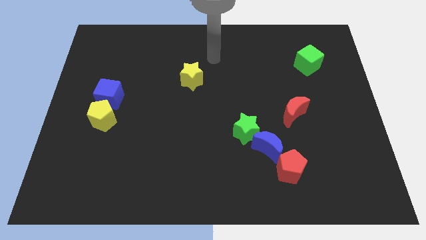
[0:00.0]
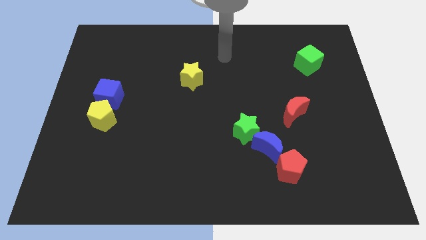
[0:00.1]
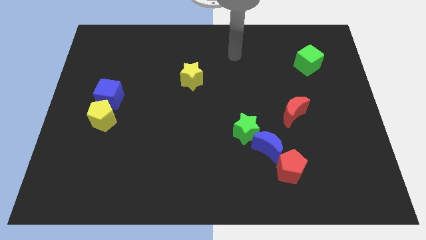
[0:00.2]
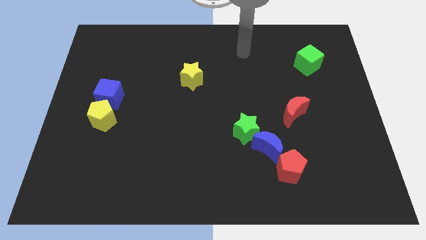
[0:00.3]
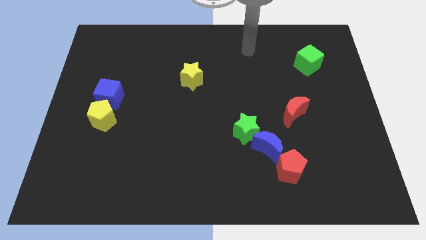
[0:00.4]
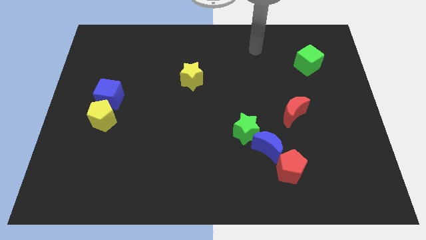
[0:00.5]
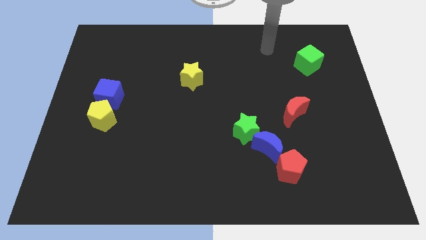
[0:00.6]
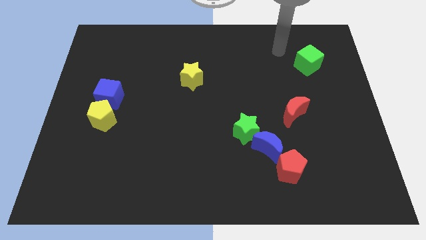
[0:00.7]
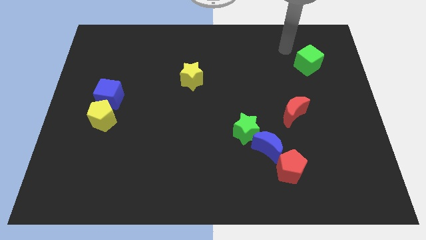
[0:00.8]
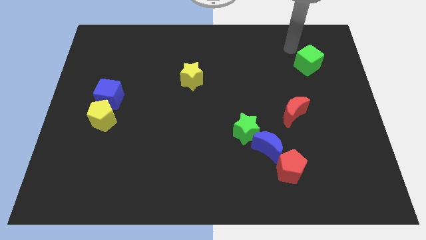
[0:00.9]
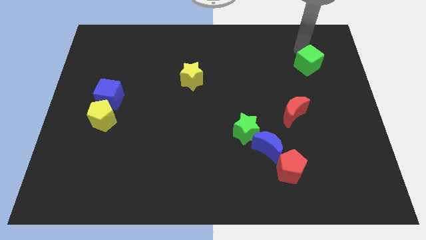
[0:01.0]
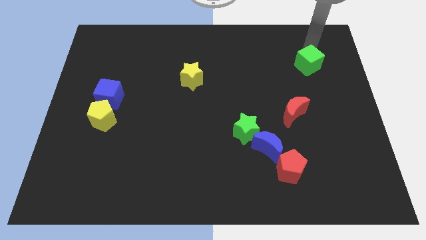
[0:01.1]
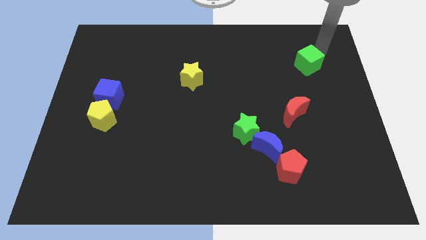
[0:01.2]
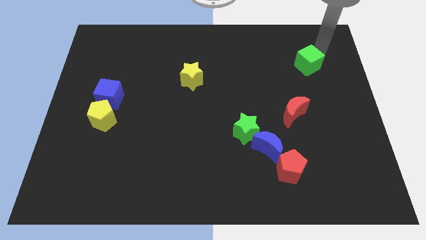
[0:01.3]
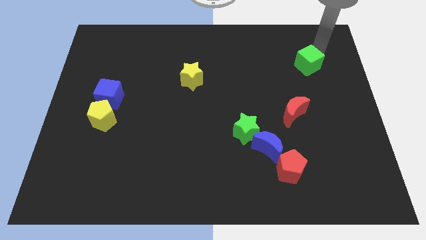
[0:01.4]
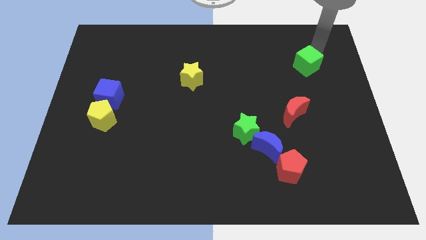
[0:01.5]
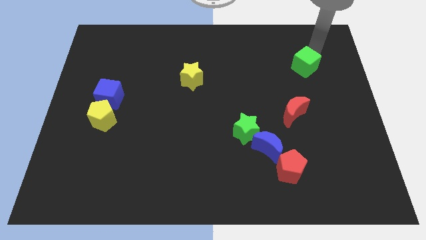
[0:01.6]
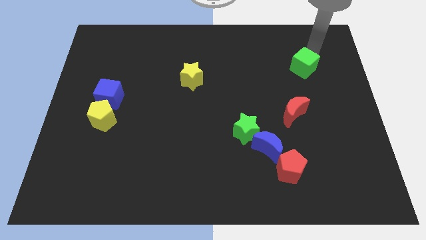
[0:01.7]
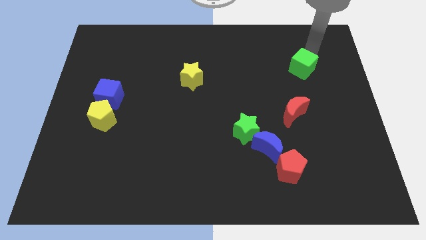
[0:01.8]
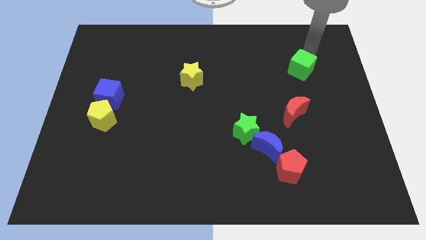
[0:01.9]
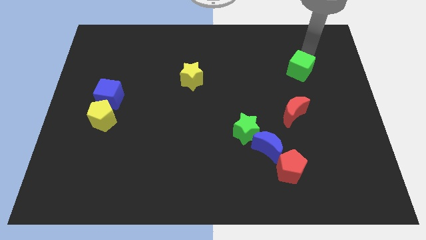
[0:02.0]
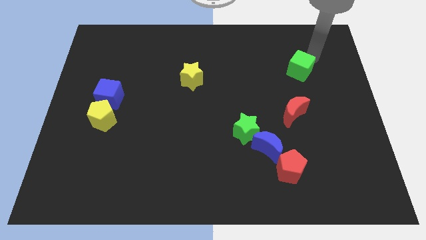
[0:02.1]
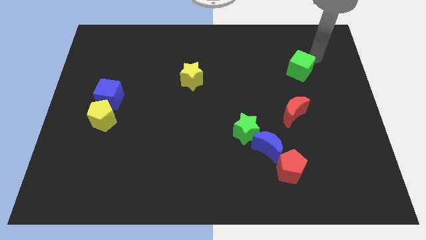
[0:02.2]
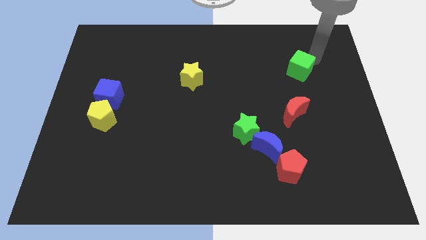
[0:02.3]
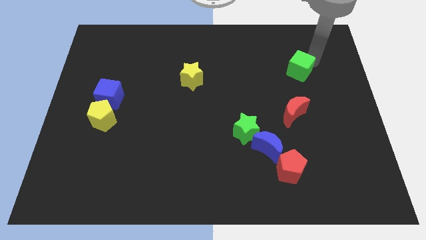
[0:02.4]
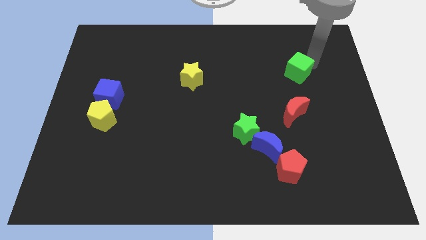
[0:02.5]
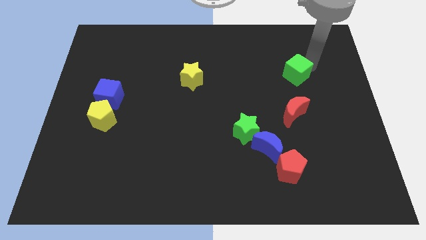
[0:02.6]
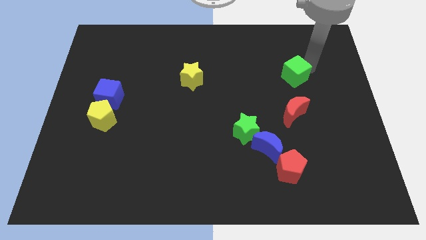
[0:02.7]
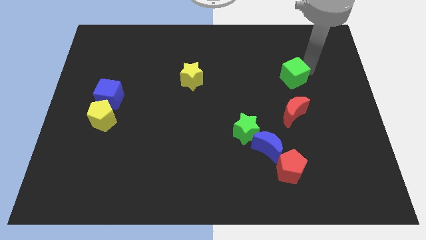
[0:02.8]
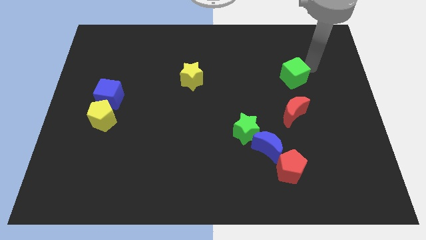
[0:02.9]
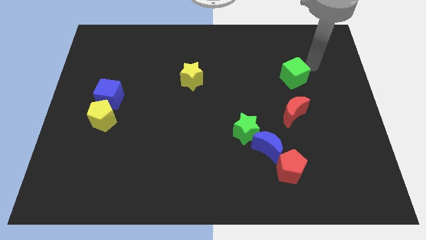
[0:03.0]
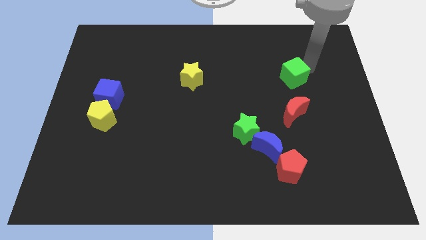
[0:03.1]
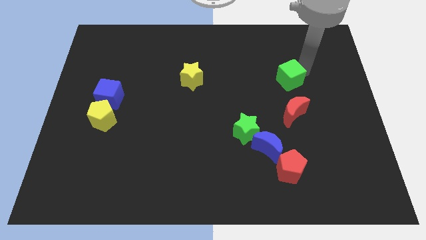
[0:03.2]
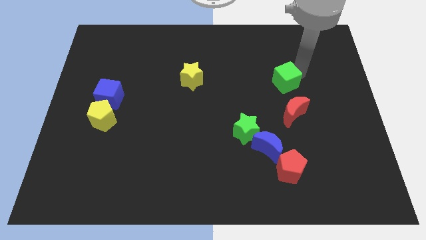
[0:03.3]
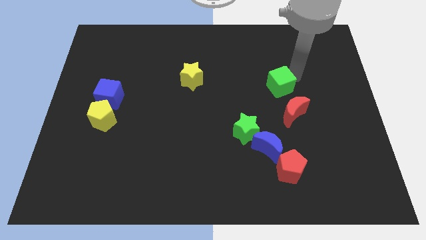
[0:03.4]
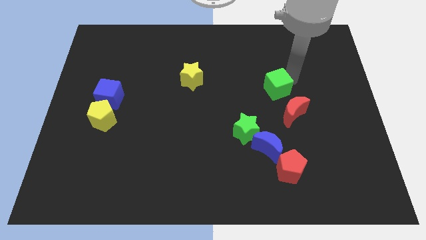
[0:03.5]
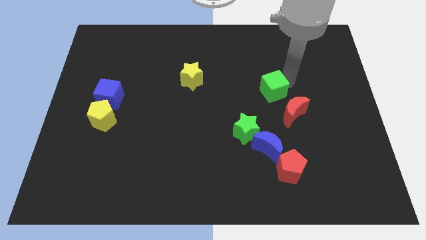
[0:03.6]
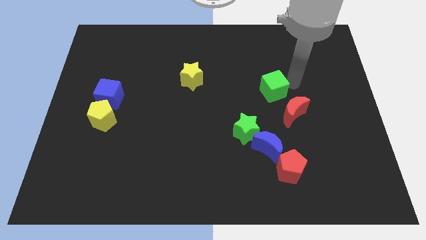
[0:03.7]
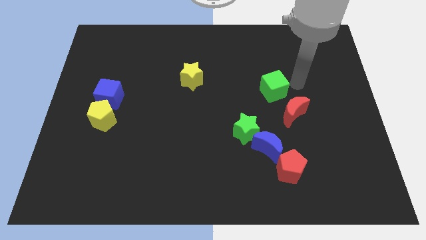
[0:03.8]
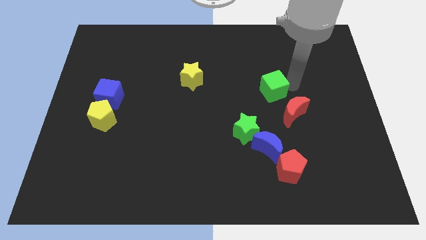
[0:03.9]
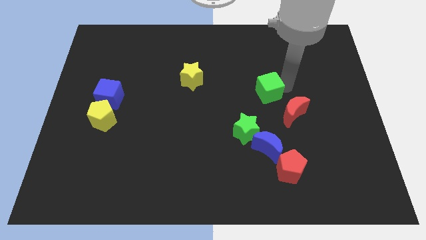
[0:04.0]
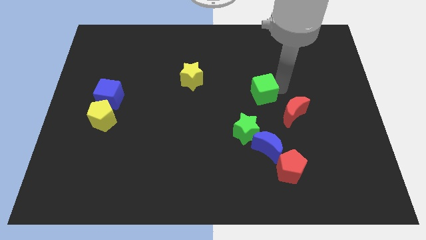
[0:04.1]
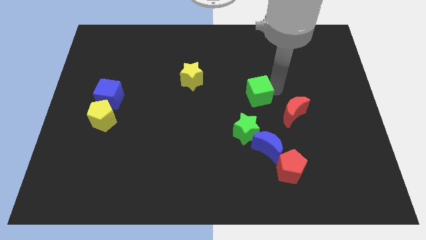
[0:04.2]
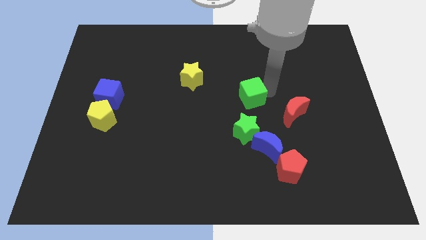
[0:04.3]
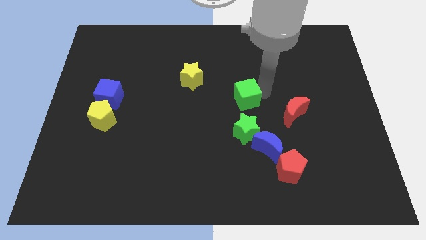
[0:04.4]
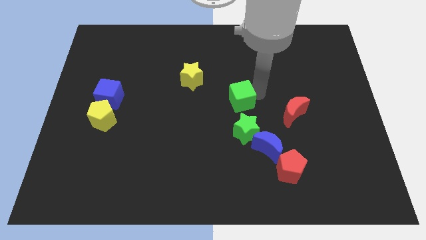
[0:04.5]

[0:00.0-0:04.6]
slide the green cube down and to the left

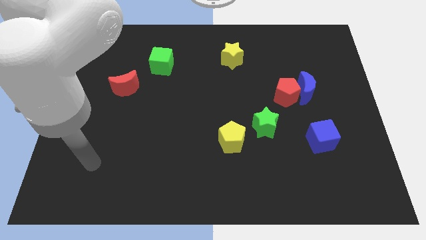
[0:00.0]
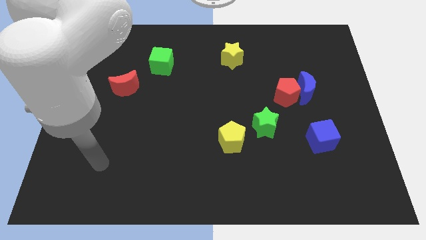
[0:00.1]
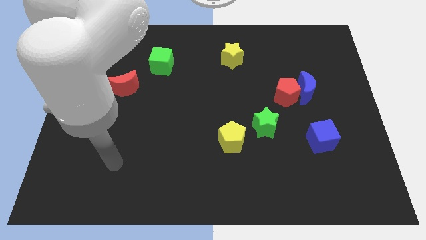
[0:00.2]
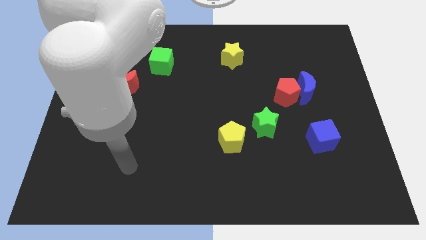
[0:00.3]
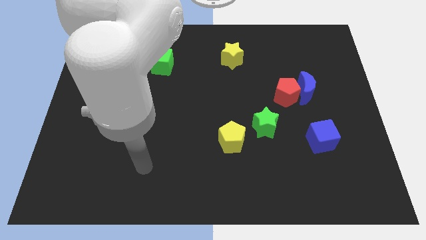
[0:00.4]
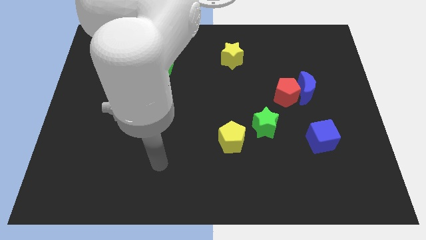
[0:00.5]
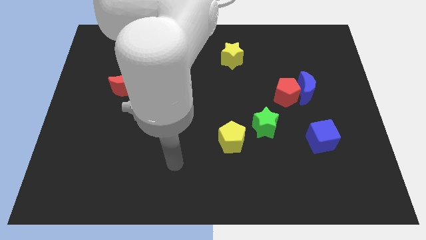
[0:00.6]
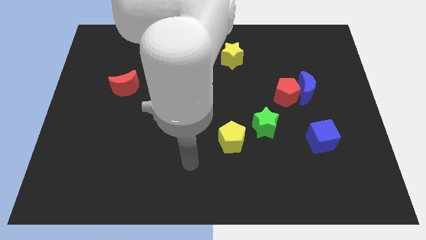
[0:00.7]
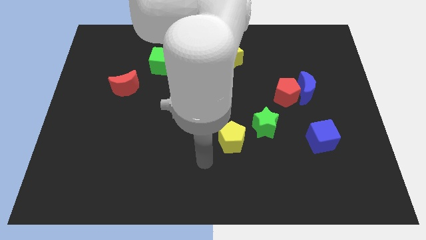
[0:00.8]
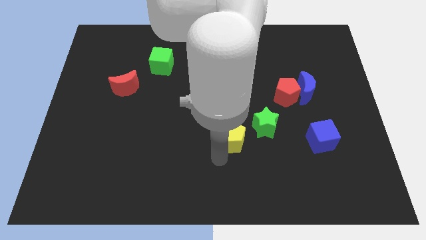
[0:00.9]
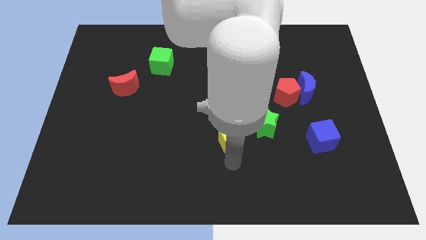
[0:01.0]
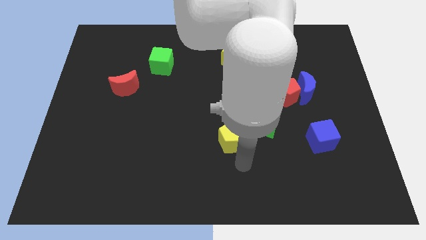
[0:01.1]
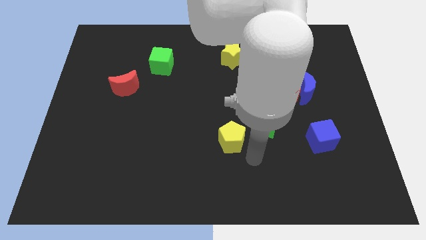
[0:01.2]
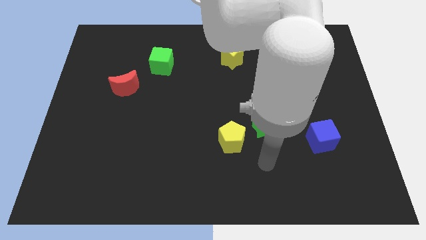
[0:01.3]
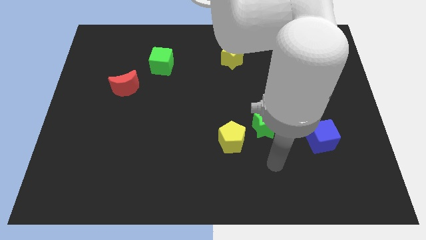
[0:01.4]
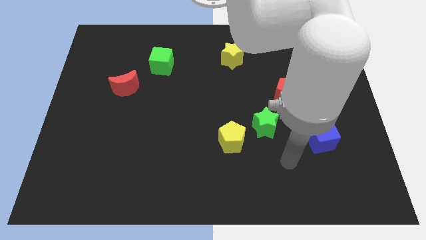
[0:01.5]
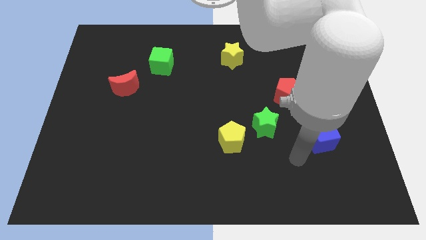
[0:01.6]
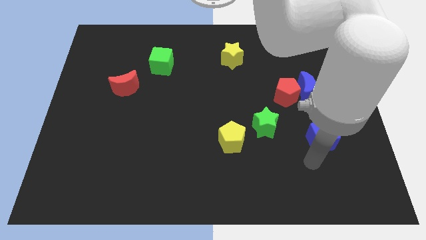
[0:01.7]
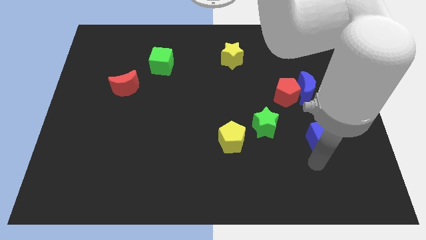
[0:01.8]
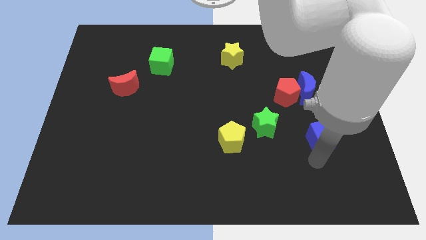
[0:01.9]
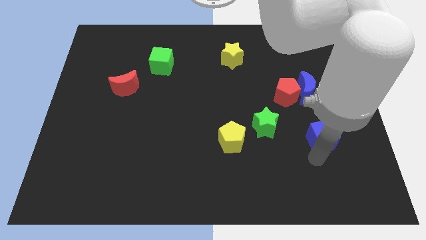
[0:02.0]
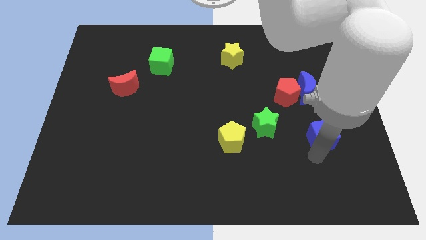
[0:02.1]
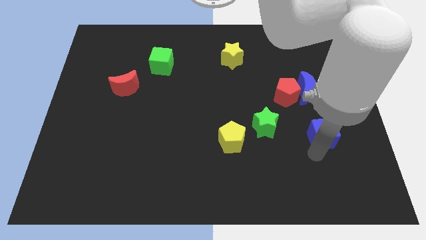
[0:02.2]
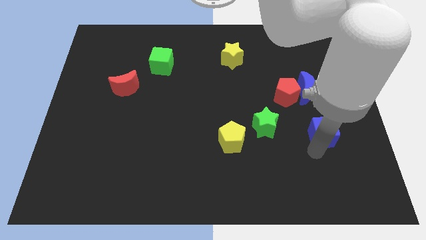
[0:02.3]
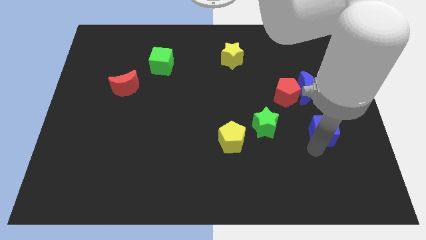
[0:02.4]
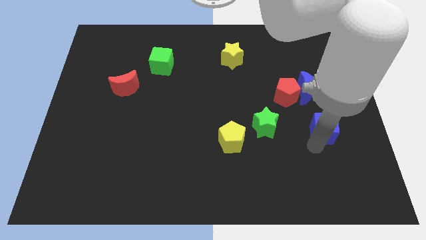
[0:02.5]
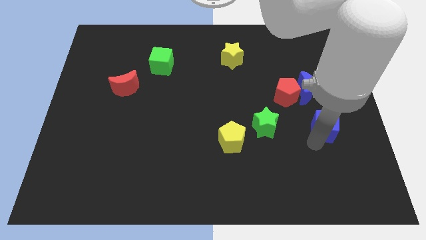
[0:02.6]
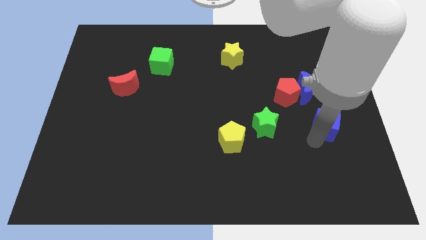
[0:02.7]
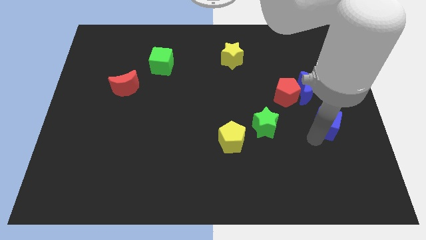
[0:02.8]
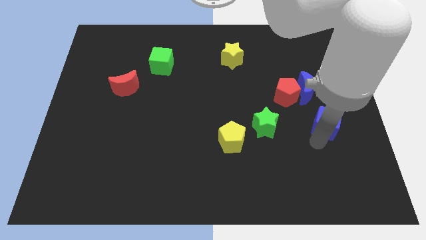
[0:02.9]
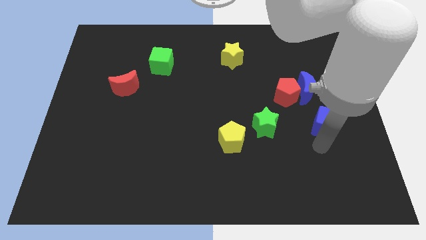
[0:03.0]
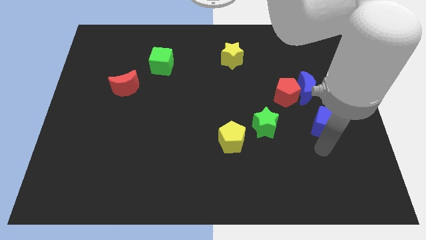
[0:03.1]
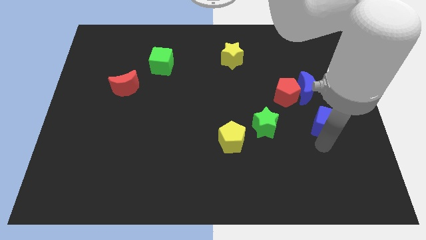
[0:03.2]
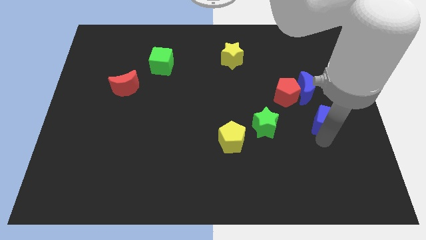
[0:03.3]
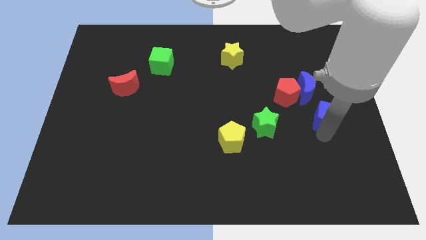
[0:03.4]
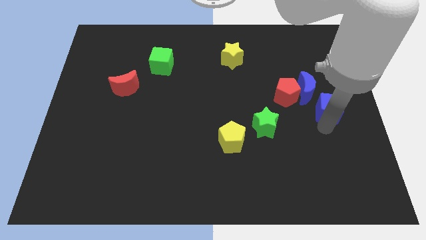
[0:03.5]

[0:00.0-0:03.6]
move the blue cube a little upwards
